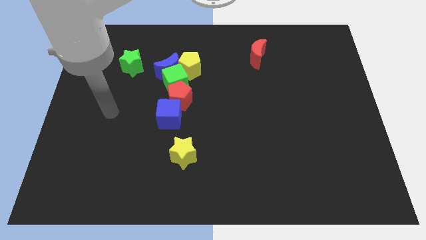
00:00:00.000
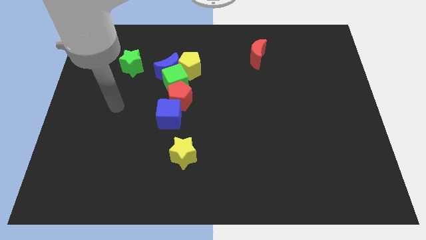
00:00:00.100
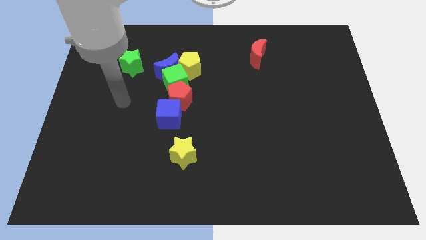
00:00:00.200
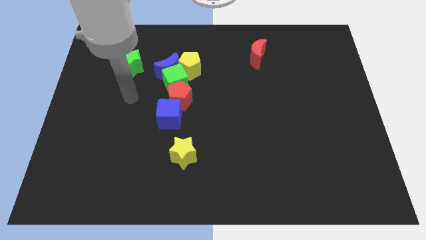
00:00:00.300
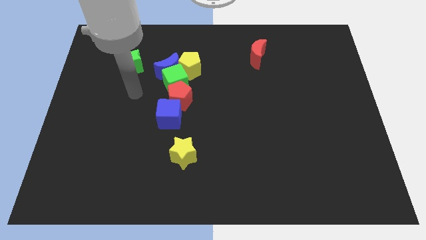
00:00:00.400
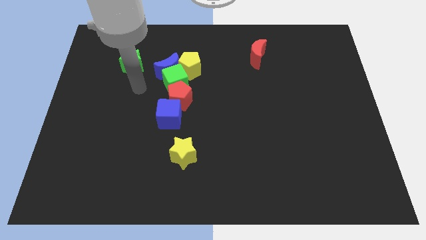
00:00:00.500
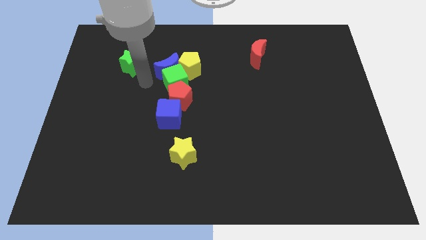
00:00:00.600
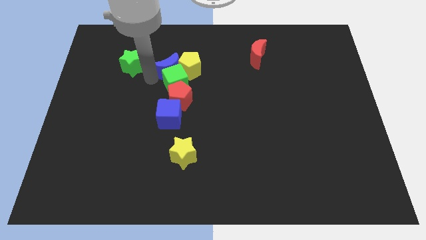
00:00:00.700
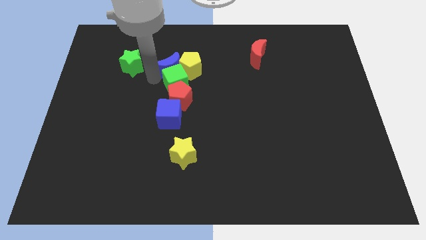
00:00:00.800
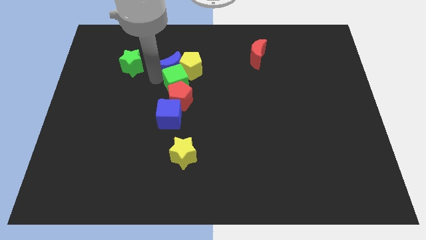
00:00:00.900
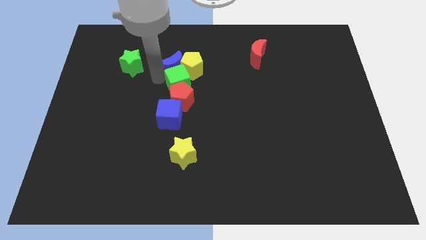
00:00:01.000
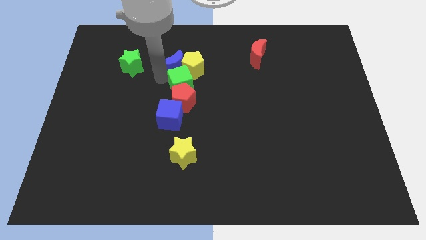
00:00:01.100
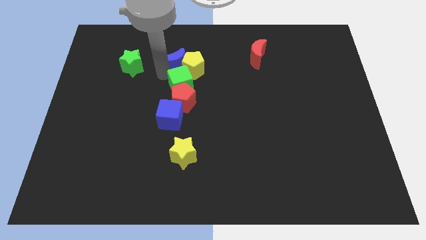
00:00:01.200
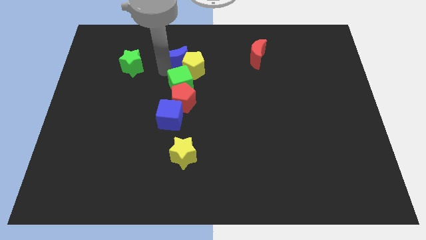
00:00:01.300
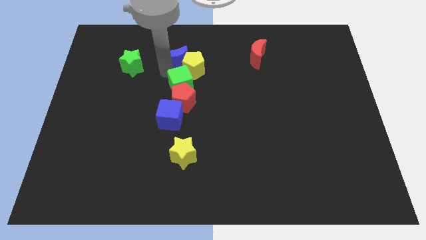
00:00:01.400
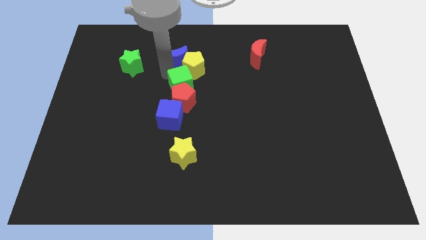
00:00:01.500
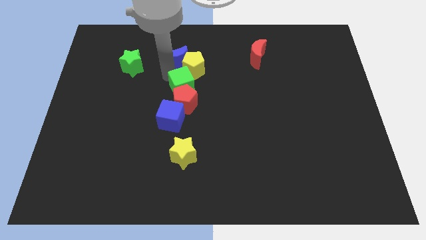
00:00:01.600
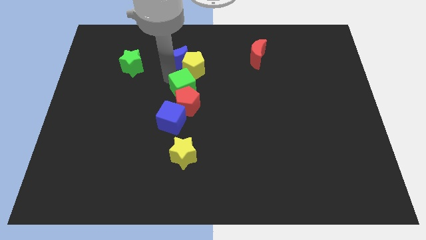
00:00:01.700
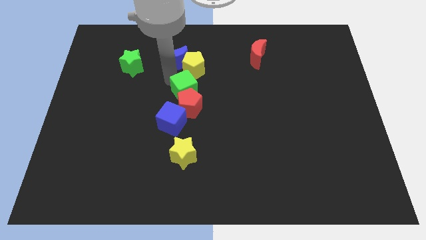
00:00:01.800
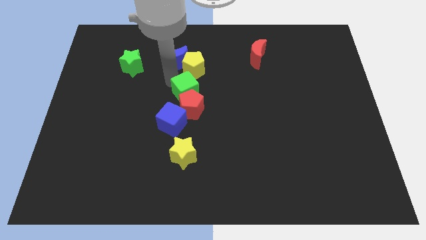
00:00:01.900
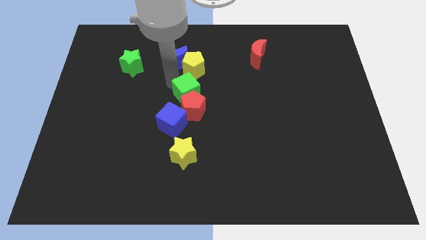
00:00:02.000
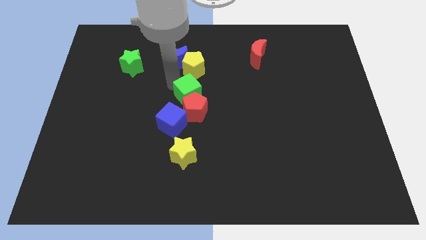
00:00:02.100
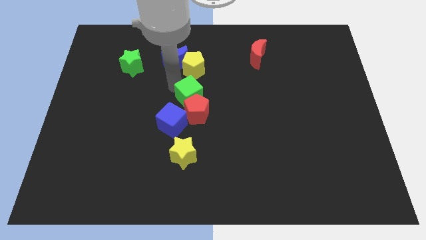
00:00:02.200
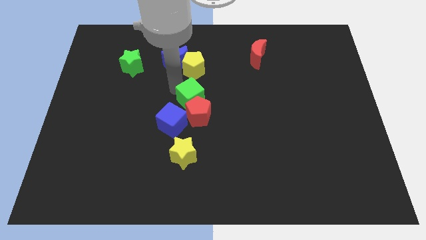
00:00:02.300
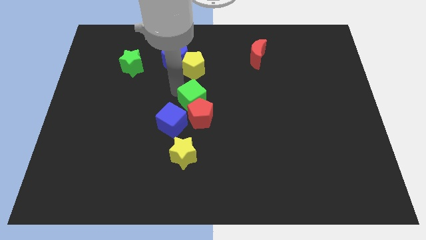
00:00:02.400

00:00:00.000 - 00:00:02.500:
slightly move the green cube downwards and to the right

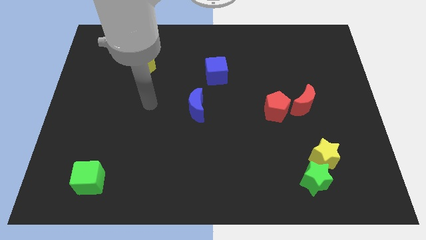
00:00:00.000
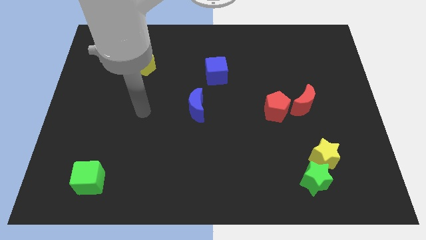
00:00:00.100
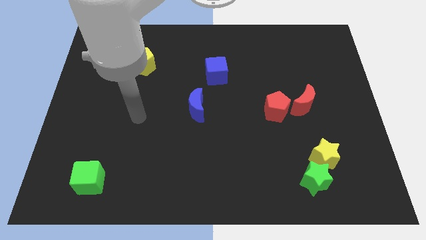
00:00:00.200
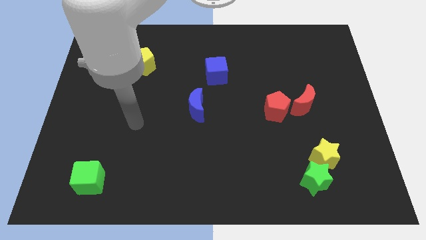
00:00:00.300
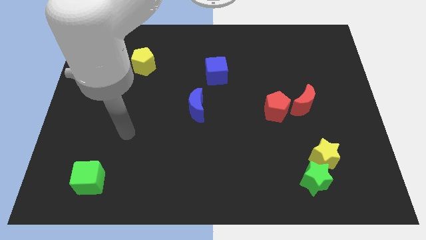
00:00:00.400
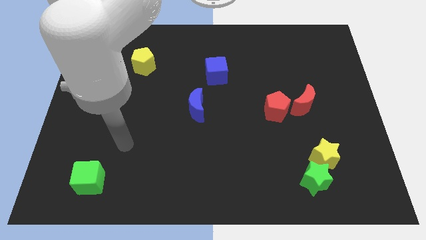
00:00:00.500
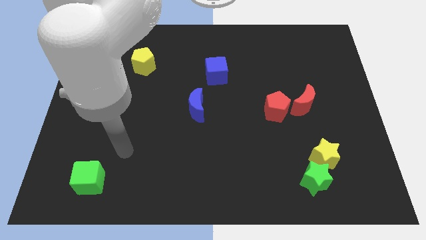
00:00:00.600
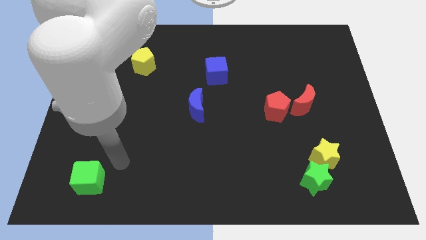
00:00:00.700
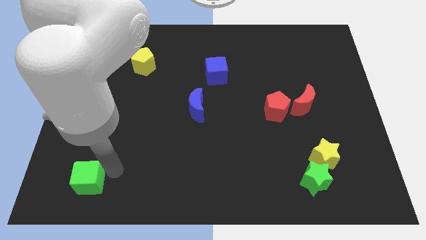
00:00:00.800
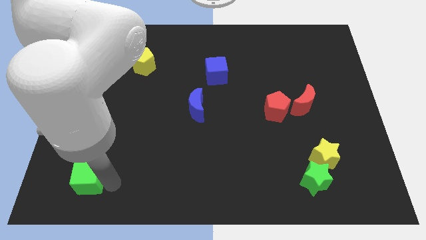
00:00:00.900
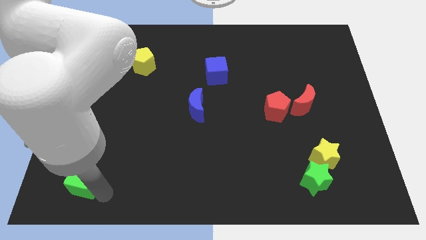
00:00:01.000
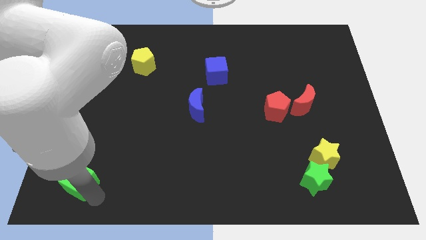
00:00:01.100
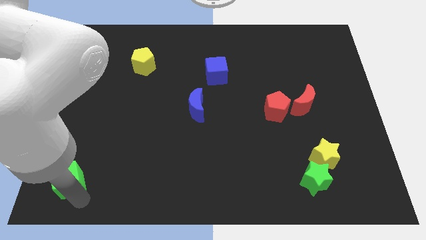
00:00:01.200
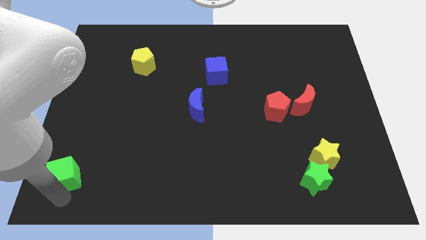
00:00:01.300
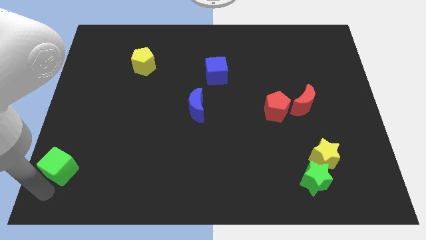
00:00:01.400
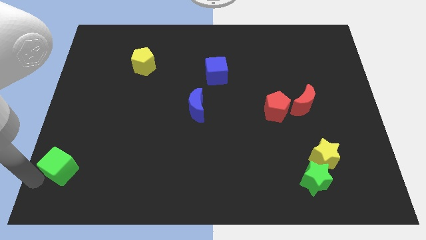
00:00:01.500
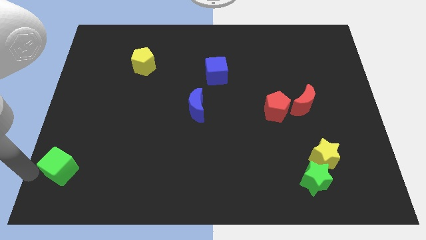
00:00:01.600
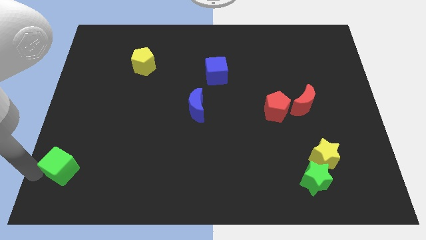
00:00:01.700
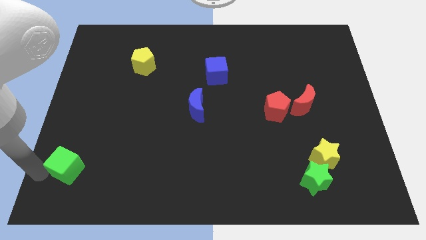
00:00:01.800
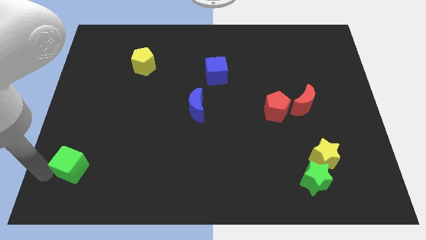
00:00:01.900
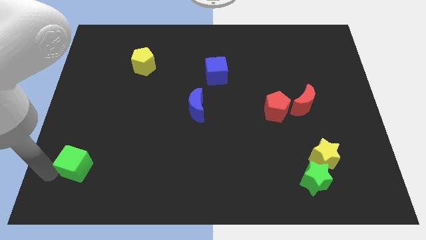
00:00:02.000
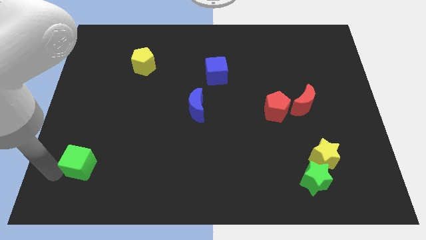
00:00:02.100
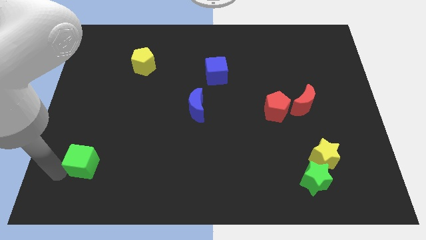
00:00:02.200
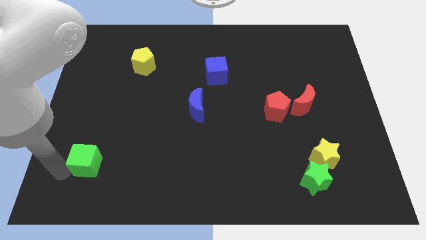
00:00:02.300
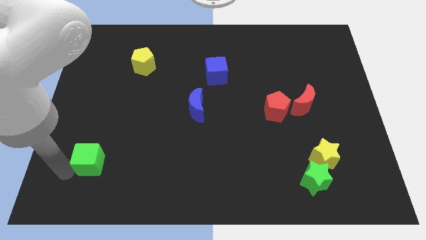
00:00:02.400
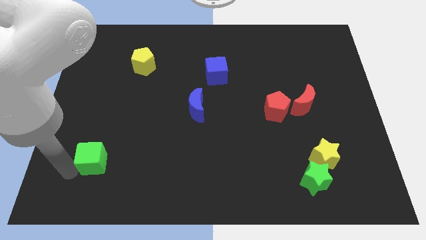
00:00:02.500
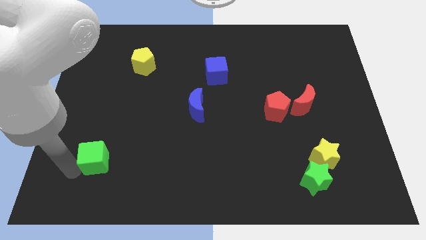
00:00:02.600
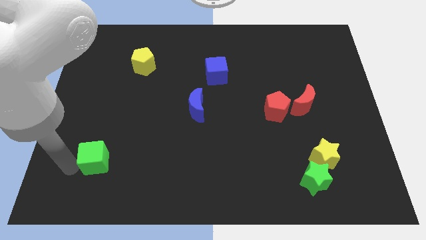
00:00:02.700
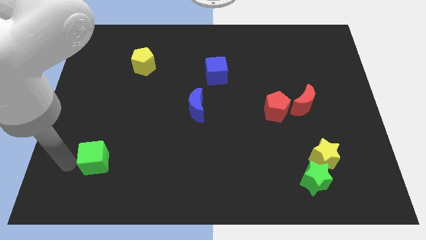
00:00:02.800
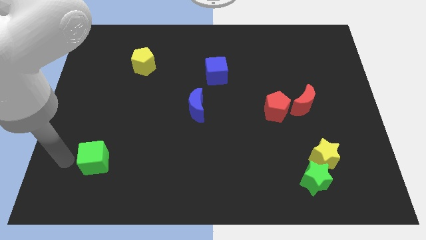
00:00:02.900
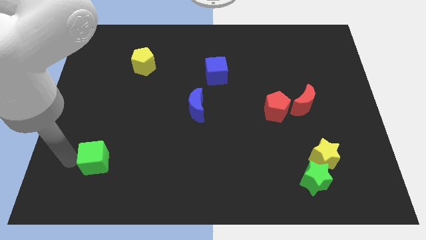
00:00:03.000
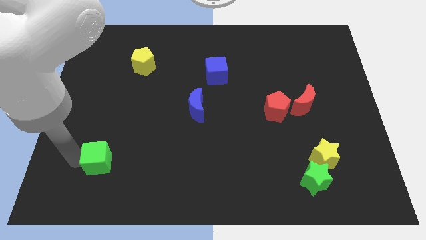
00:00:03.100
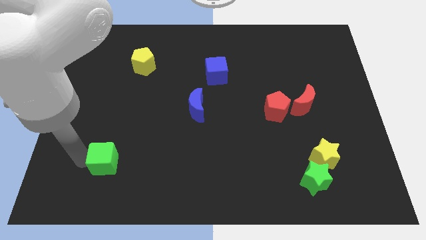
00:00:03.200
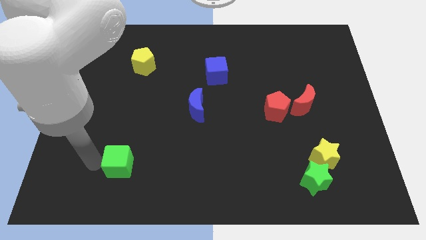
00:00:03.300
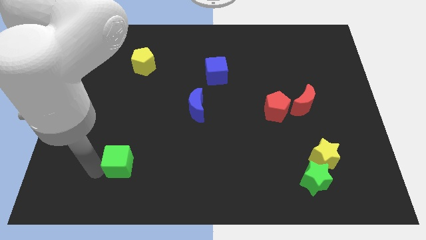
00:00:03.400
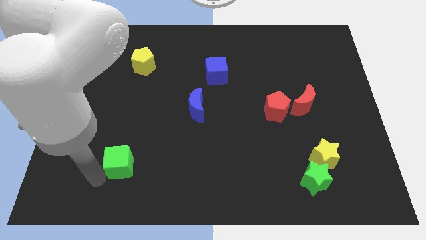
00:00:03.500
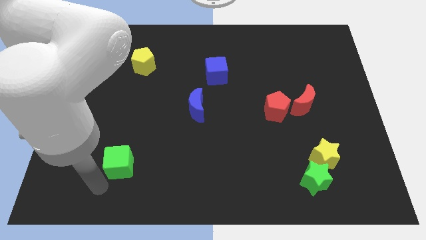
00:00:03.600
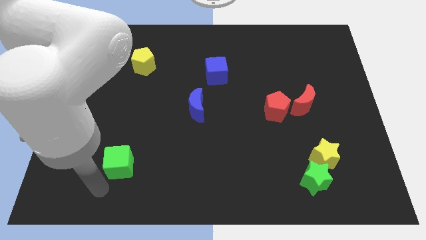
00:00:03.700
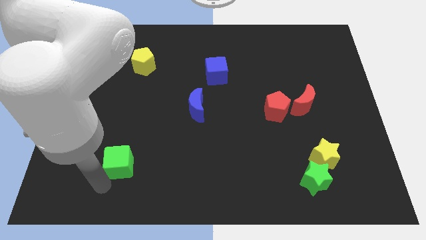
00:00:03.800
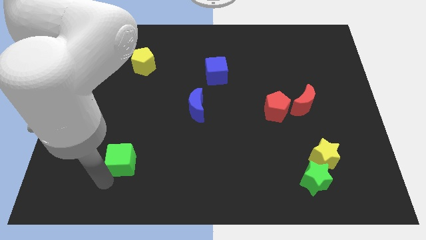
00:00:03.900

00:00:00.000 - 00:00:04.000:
slightly slide the green cube upwards and then to the right

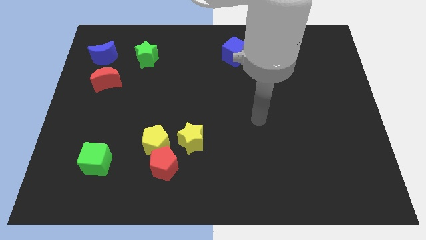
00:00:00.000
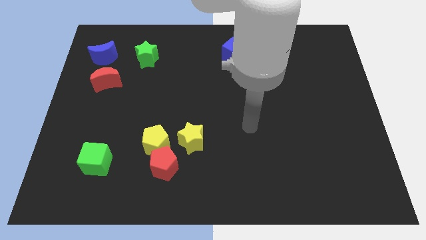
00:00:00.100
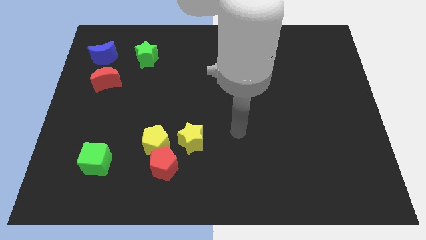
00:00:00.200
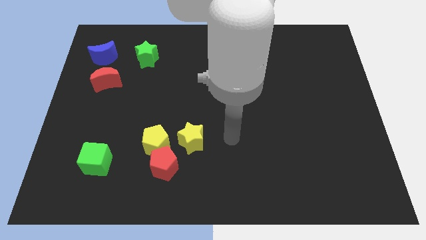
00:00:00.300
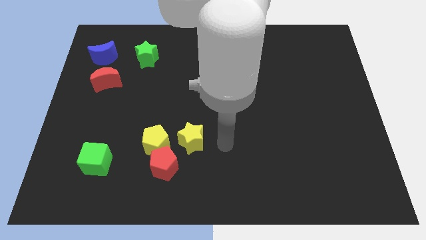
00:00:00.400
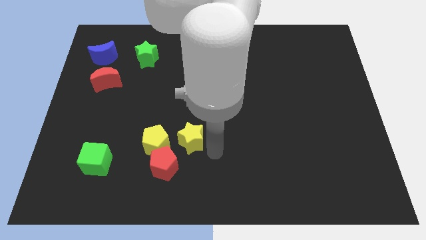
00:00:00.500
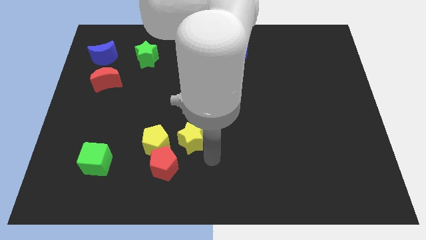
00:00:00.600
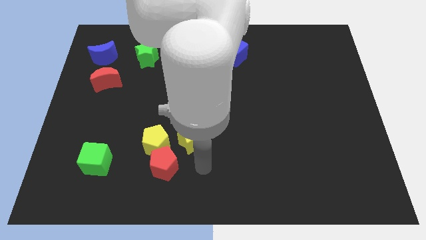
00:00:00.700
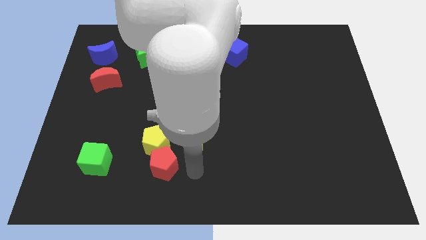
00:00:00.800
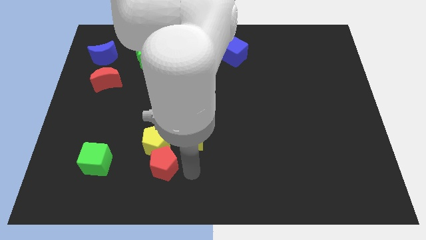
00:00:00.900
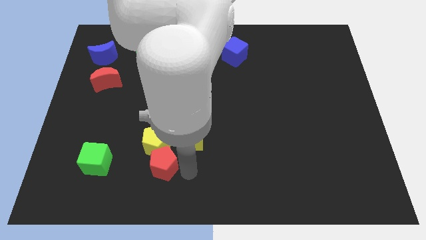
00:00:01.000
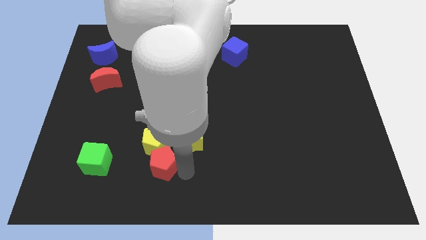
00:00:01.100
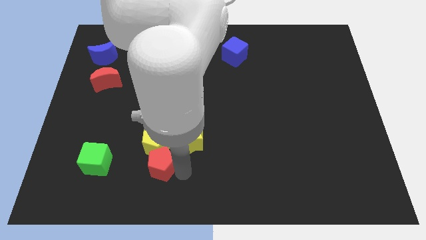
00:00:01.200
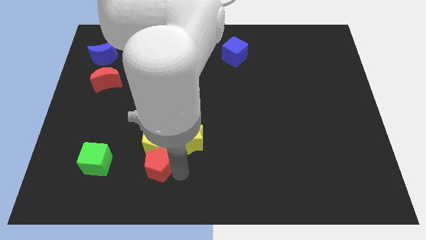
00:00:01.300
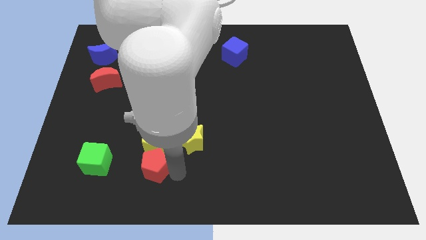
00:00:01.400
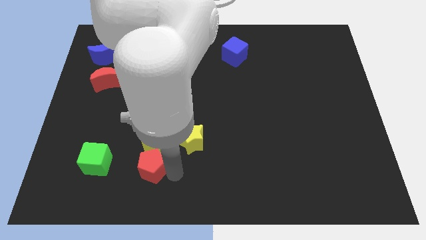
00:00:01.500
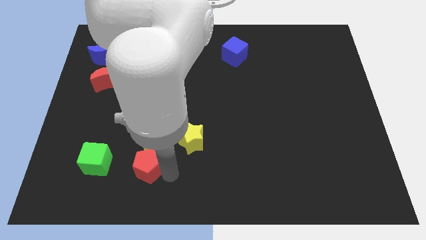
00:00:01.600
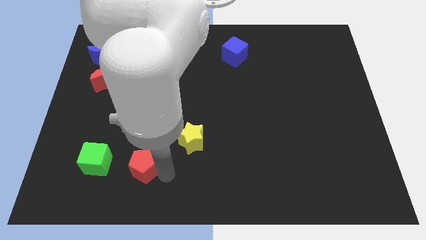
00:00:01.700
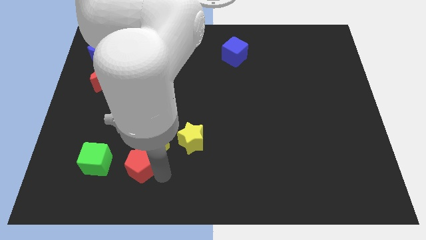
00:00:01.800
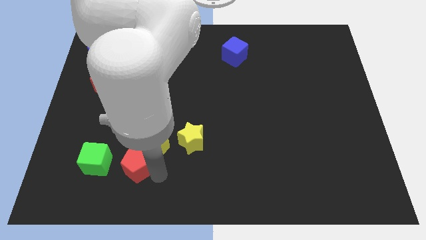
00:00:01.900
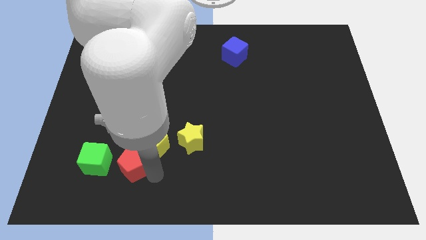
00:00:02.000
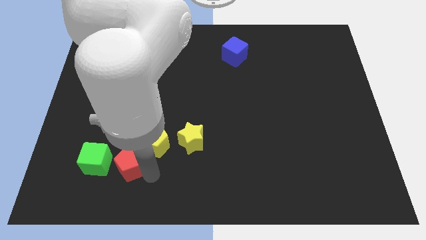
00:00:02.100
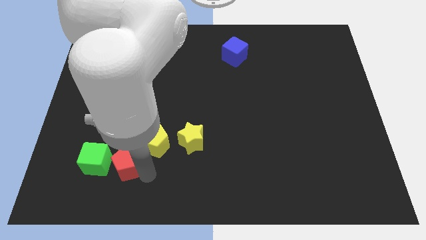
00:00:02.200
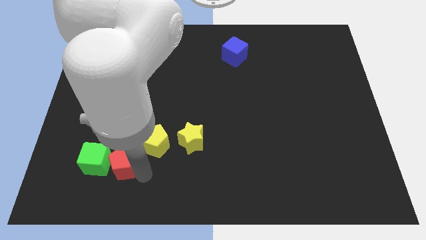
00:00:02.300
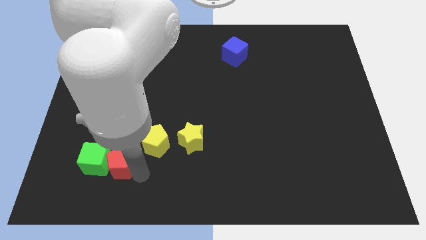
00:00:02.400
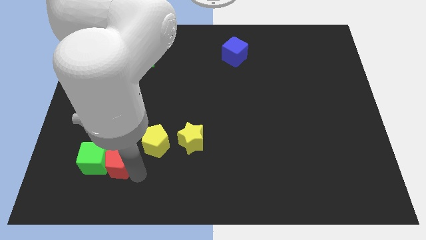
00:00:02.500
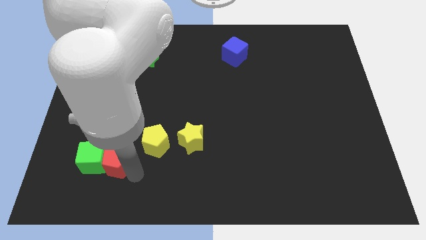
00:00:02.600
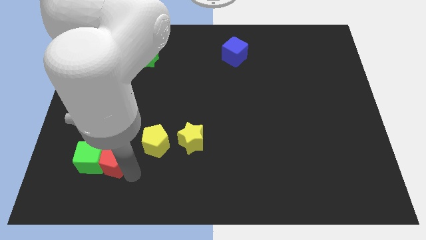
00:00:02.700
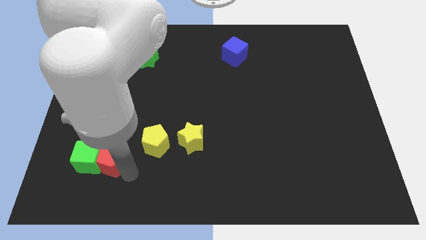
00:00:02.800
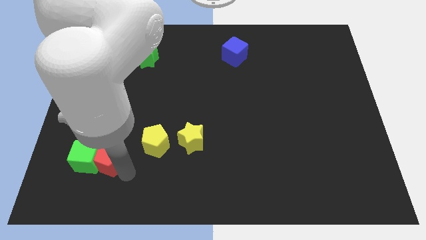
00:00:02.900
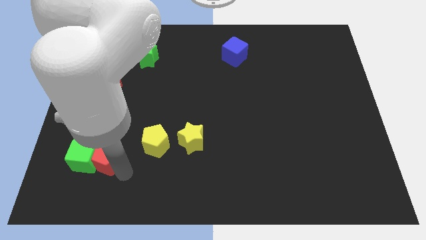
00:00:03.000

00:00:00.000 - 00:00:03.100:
push the red pentagon a bit up and then to the left
